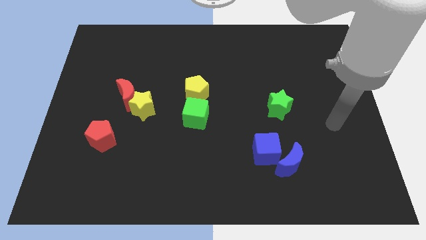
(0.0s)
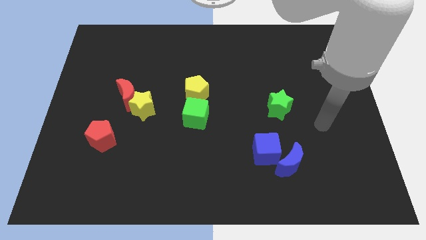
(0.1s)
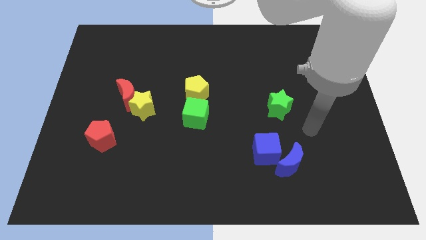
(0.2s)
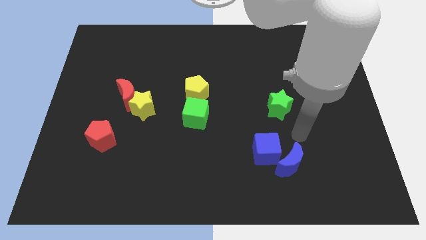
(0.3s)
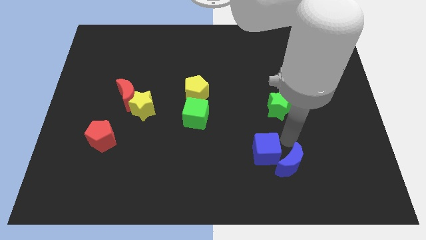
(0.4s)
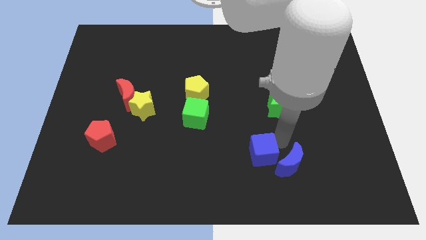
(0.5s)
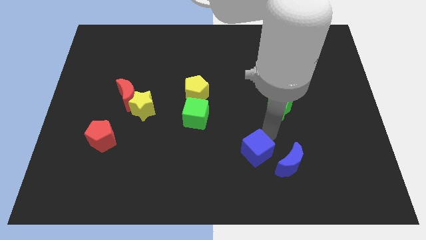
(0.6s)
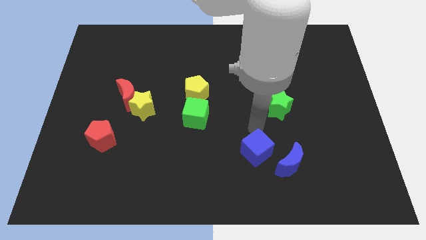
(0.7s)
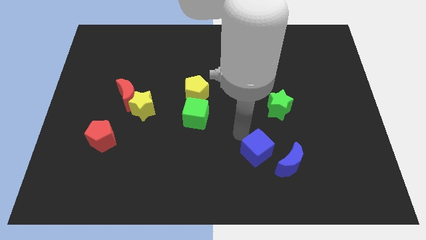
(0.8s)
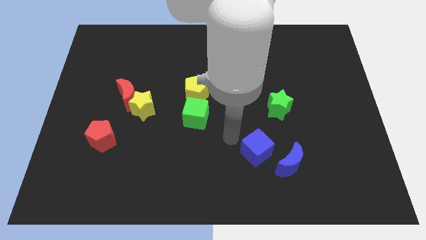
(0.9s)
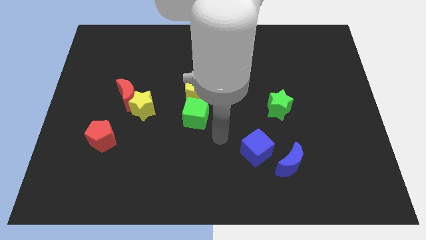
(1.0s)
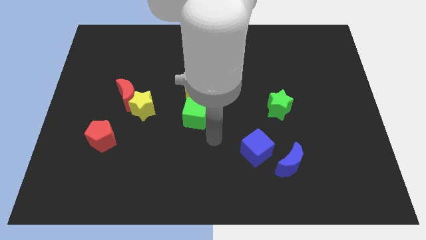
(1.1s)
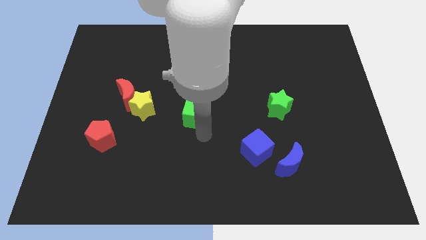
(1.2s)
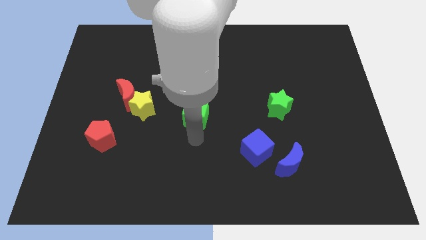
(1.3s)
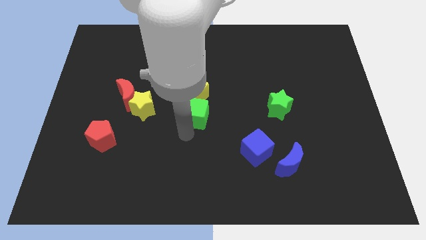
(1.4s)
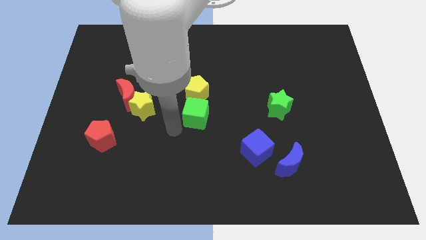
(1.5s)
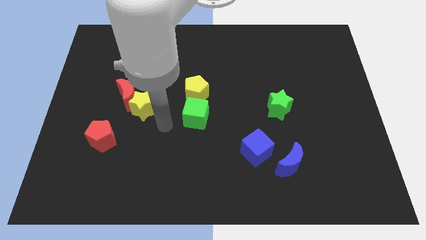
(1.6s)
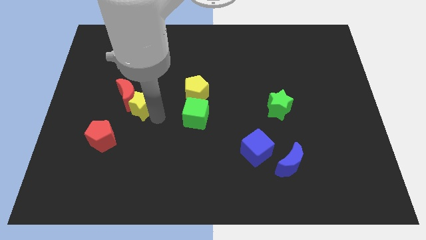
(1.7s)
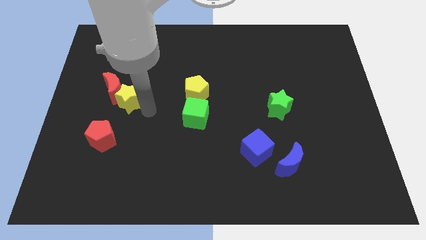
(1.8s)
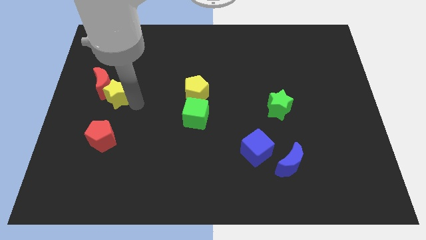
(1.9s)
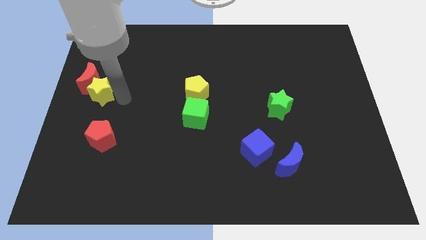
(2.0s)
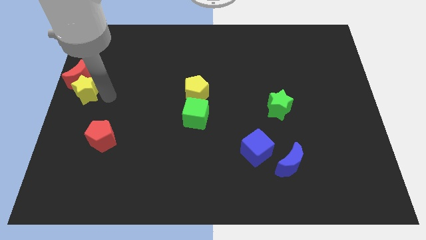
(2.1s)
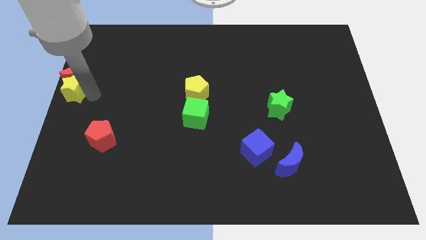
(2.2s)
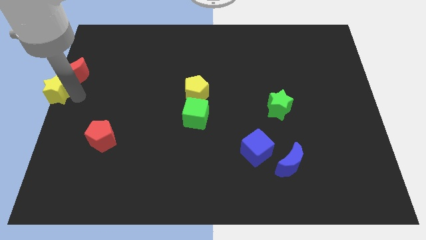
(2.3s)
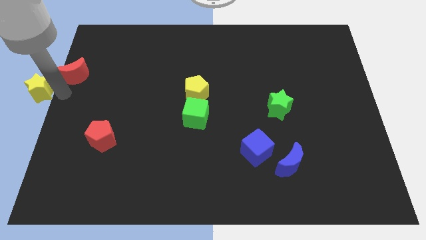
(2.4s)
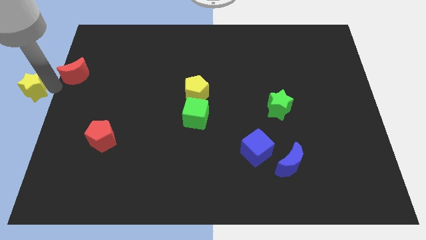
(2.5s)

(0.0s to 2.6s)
move the red moon away from the yellow star

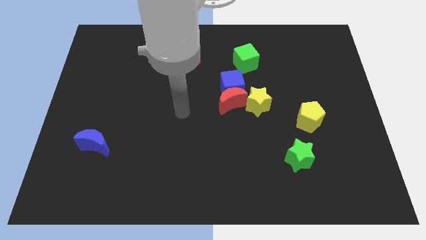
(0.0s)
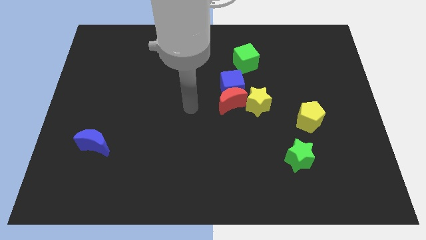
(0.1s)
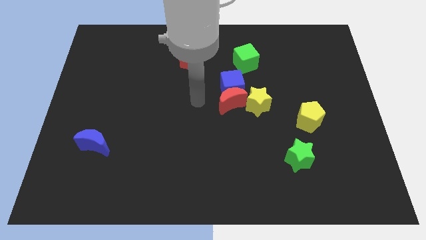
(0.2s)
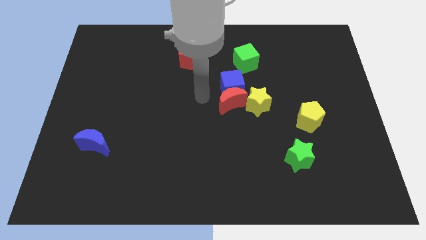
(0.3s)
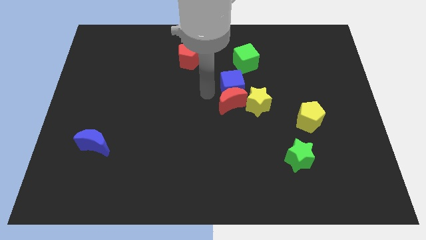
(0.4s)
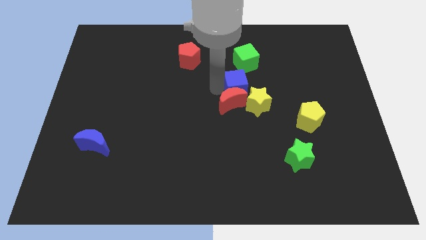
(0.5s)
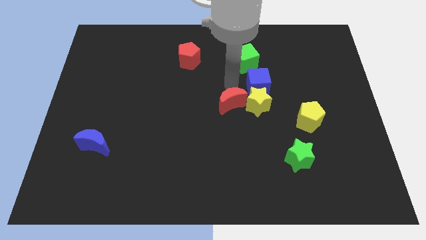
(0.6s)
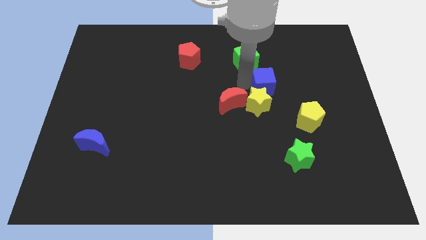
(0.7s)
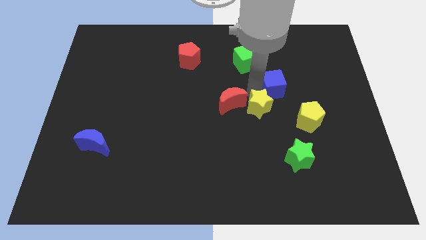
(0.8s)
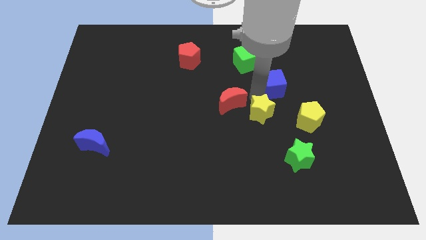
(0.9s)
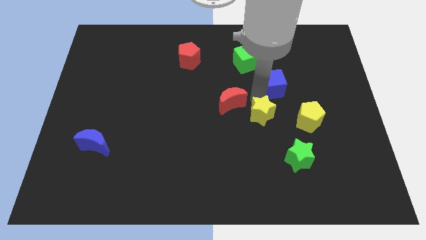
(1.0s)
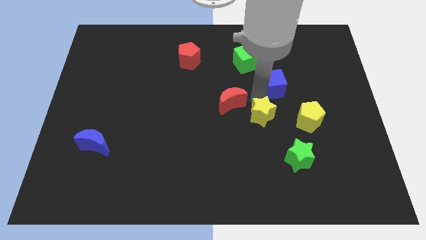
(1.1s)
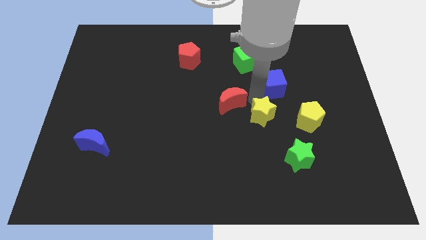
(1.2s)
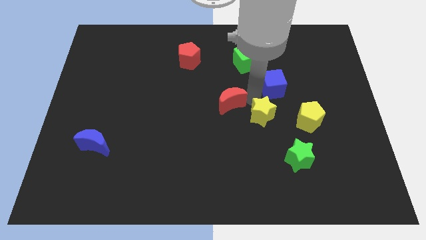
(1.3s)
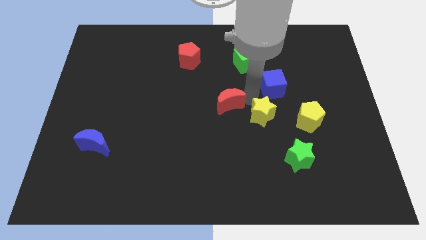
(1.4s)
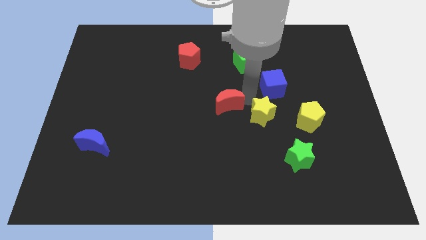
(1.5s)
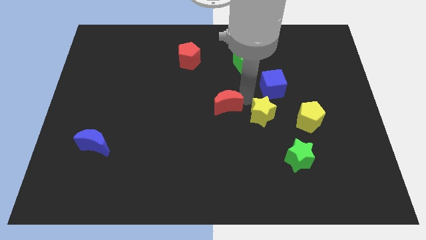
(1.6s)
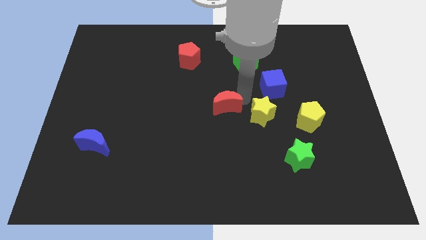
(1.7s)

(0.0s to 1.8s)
move the red moon away from the blue cube and yellow star

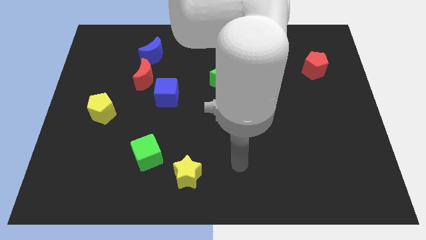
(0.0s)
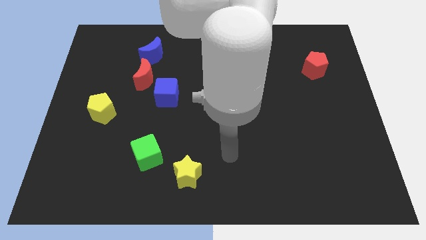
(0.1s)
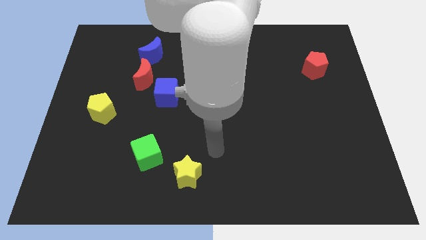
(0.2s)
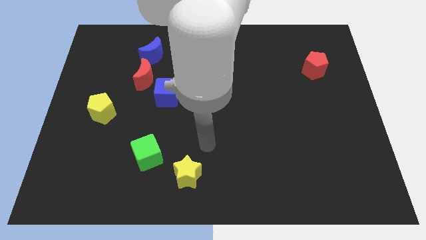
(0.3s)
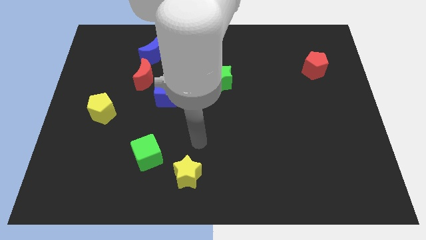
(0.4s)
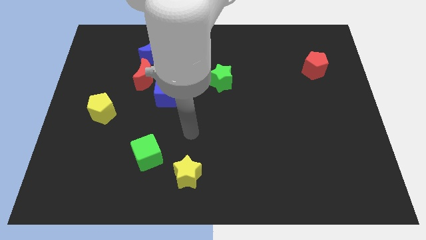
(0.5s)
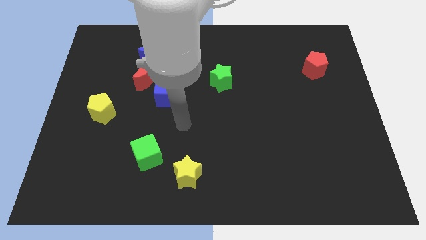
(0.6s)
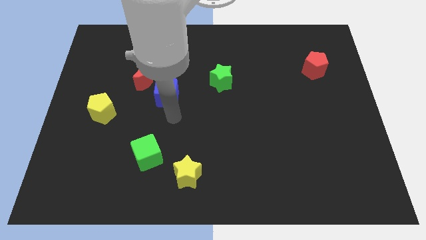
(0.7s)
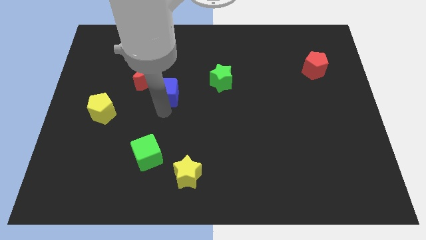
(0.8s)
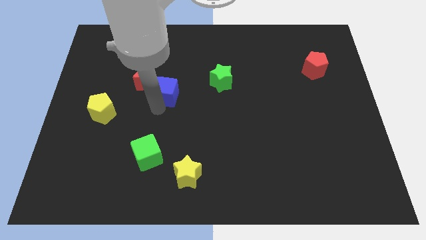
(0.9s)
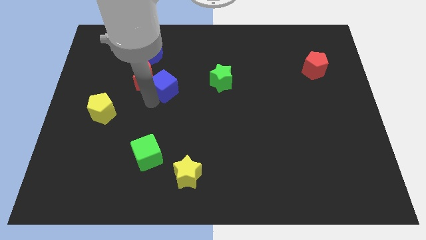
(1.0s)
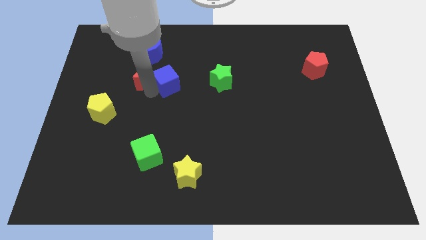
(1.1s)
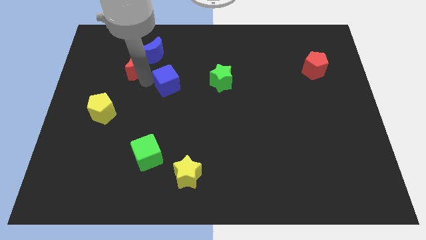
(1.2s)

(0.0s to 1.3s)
pull the blue cube apart from the red moon

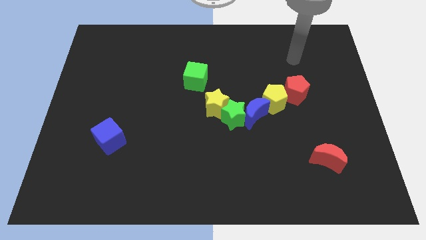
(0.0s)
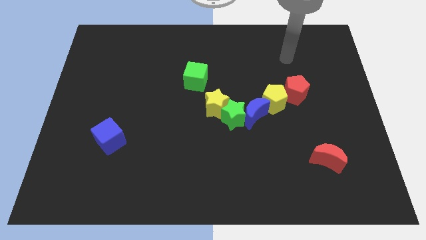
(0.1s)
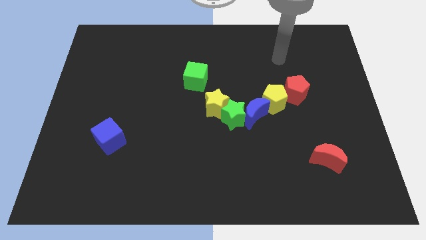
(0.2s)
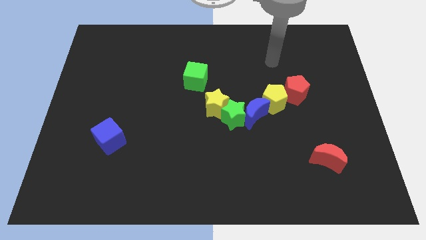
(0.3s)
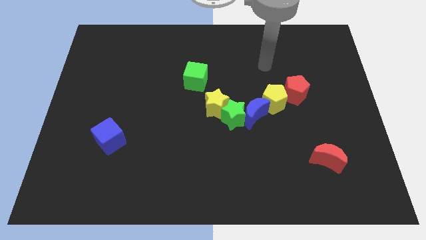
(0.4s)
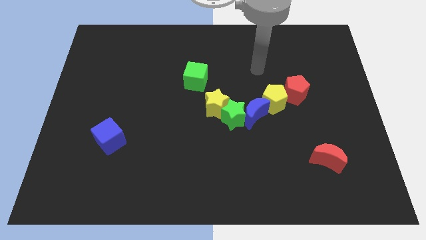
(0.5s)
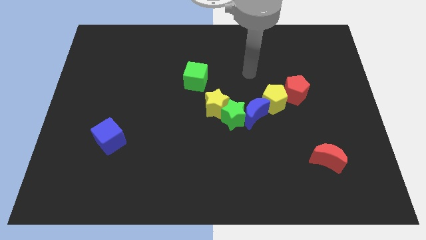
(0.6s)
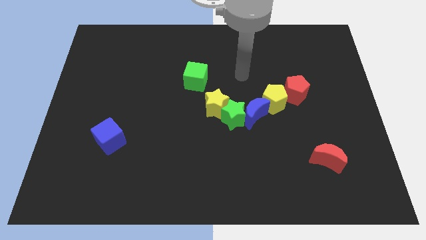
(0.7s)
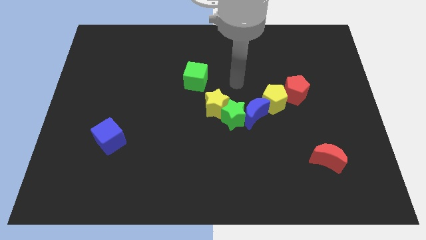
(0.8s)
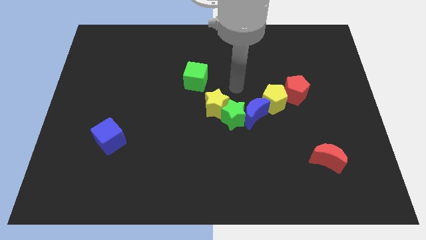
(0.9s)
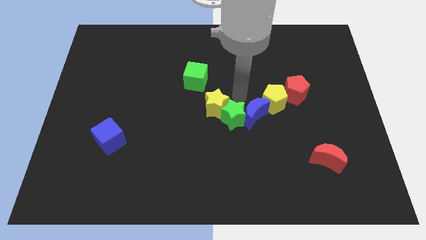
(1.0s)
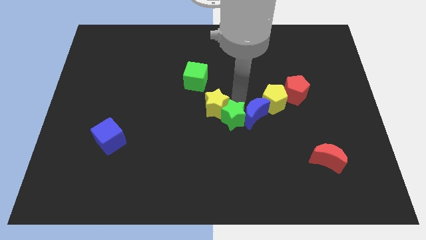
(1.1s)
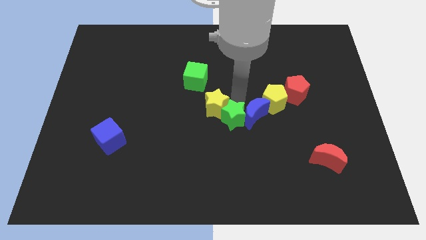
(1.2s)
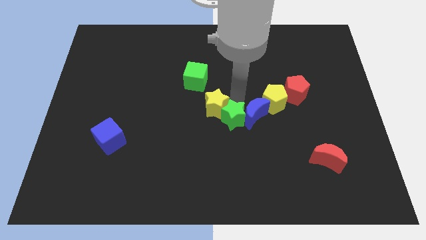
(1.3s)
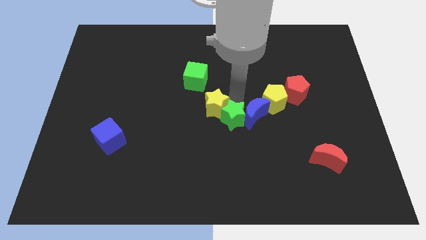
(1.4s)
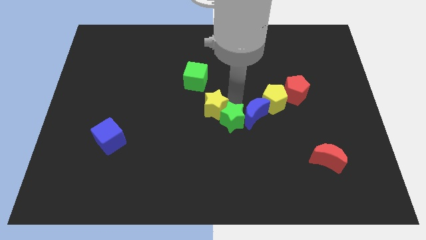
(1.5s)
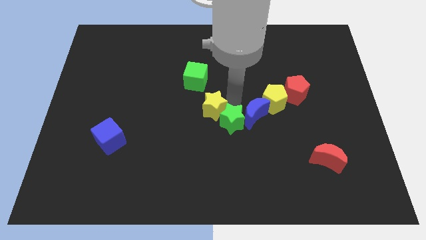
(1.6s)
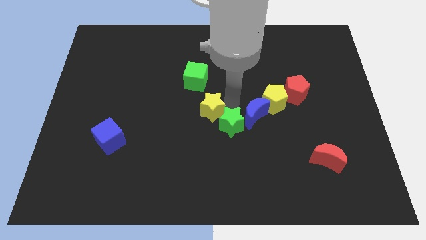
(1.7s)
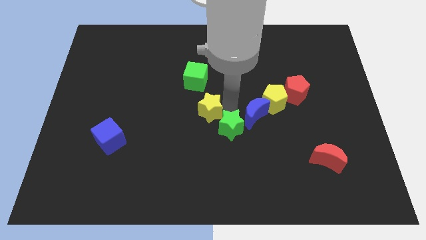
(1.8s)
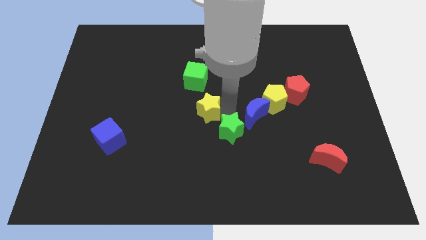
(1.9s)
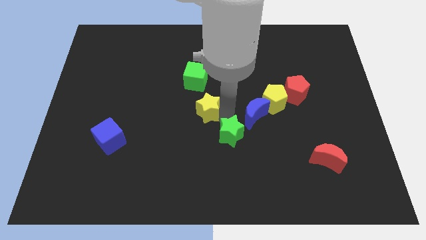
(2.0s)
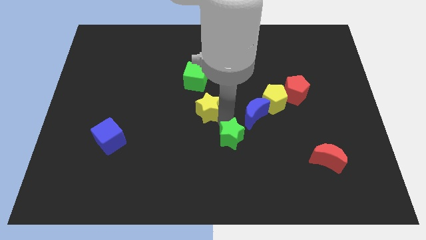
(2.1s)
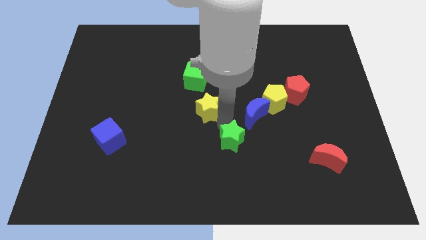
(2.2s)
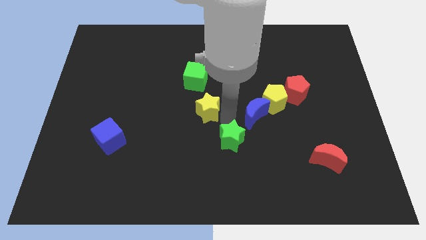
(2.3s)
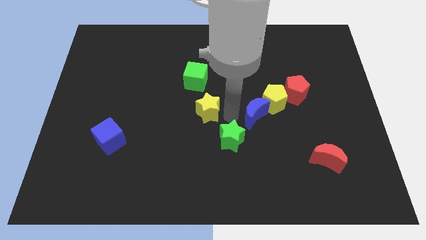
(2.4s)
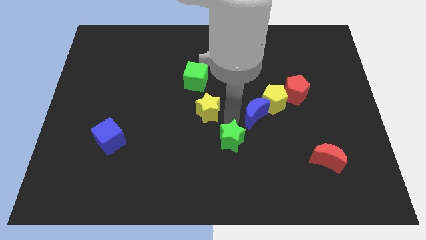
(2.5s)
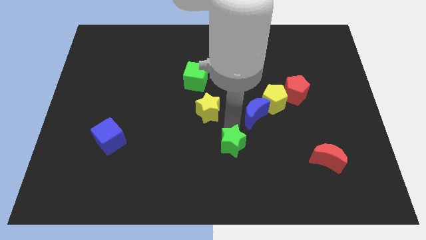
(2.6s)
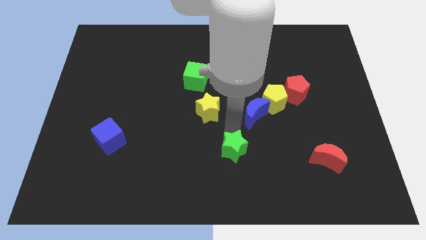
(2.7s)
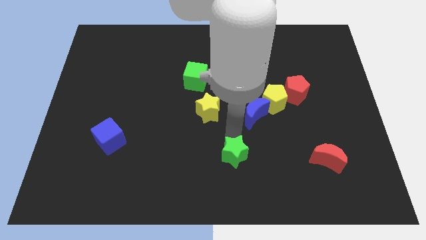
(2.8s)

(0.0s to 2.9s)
separate the green star from the blue moon and yellow star

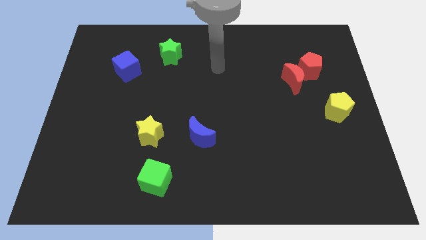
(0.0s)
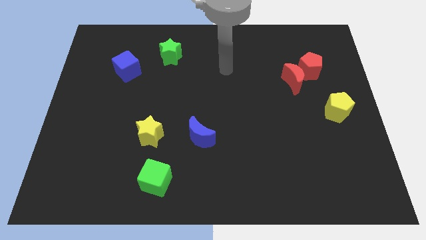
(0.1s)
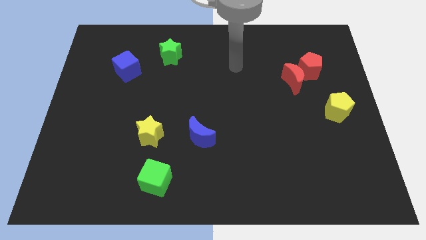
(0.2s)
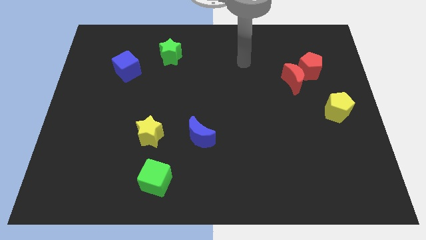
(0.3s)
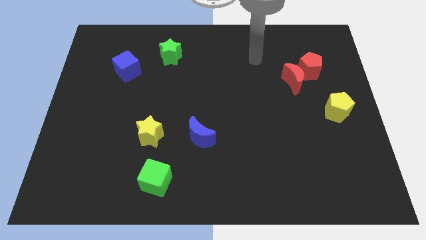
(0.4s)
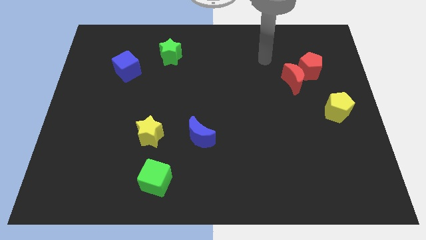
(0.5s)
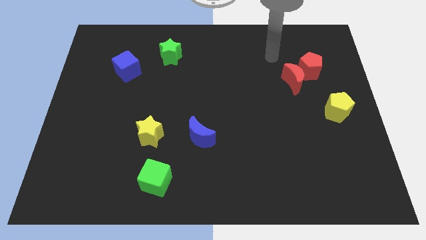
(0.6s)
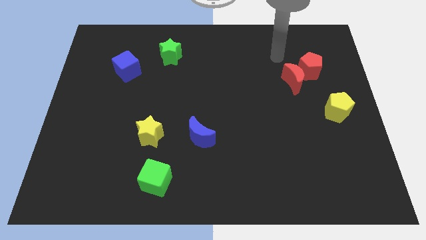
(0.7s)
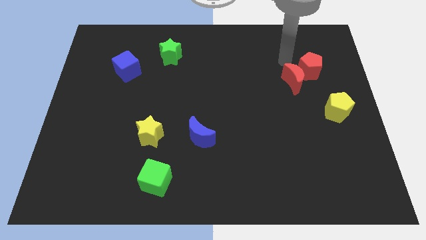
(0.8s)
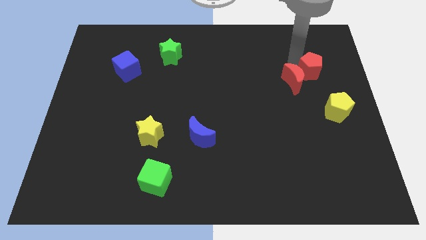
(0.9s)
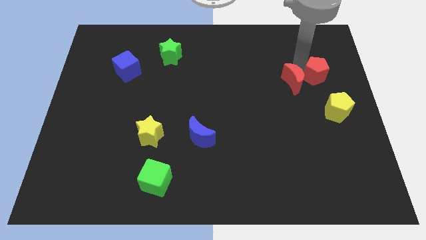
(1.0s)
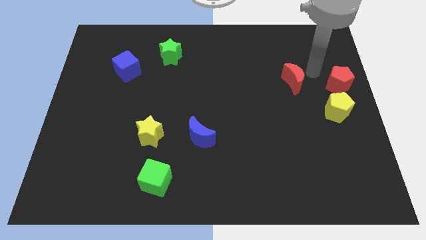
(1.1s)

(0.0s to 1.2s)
separate the red moon from the red pentagon
